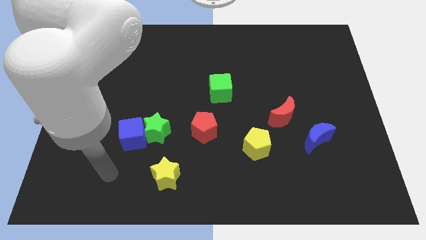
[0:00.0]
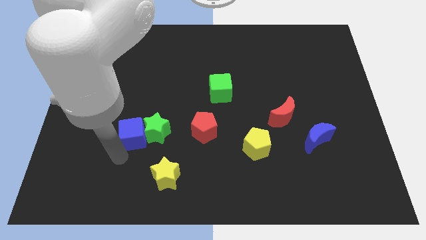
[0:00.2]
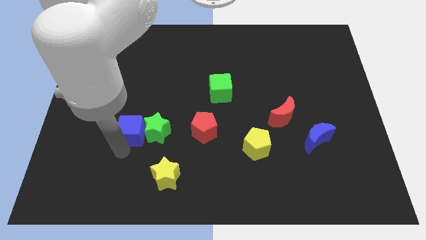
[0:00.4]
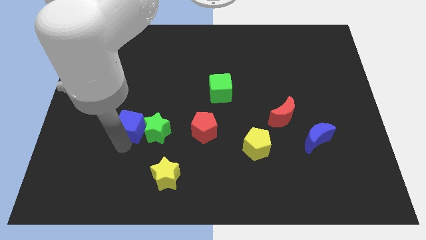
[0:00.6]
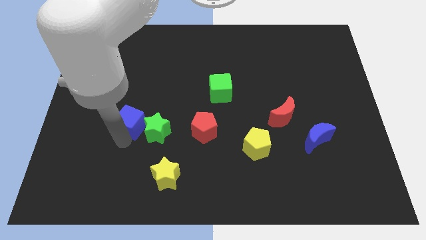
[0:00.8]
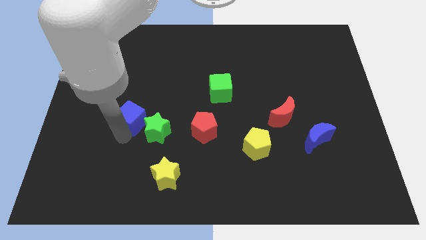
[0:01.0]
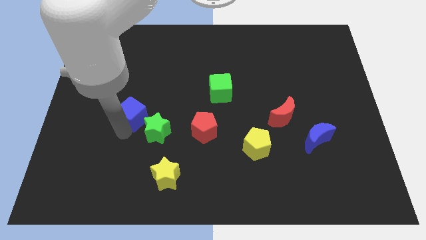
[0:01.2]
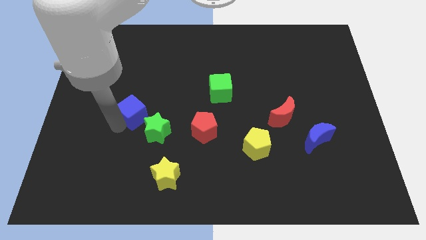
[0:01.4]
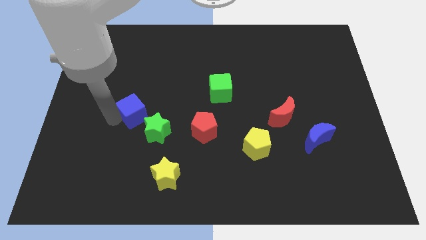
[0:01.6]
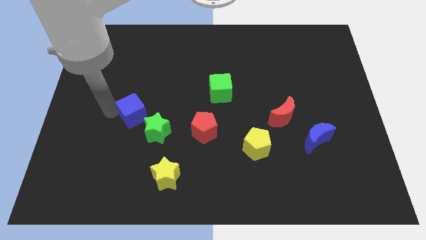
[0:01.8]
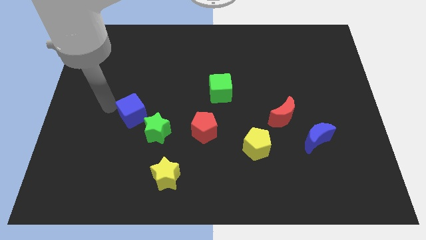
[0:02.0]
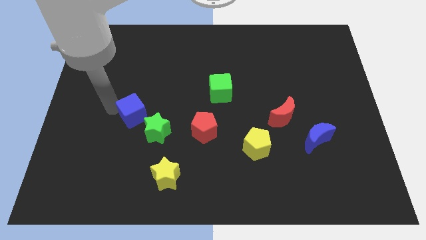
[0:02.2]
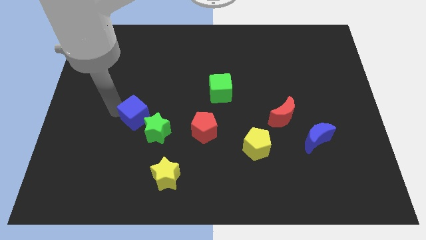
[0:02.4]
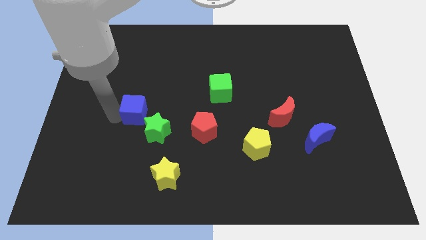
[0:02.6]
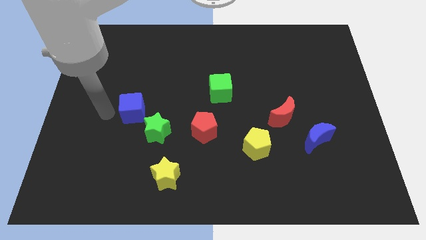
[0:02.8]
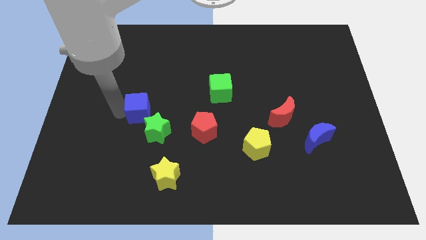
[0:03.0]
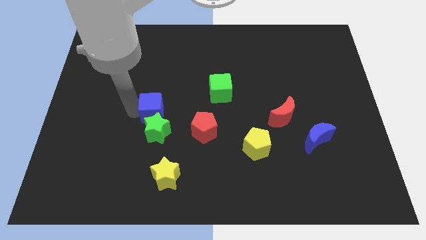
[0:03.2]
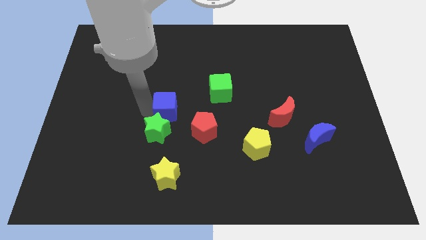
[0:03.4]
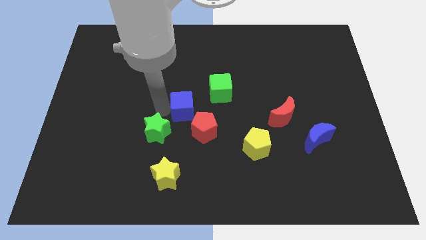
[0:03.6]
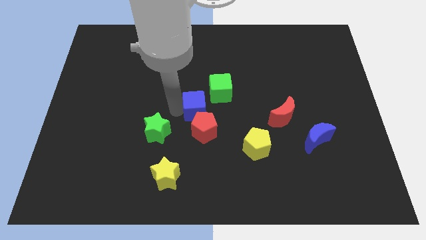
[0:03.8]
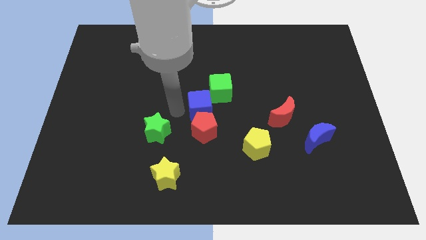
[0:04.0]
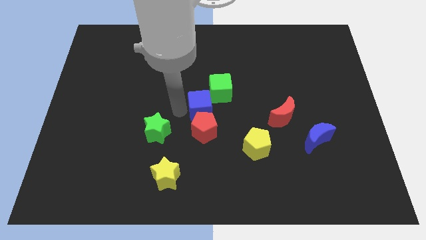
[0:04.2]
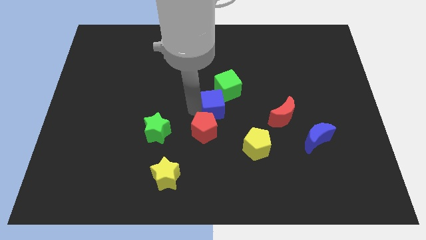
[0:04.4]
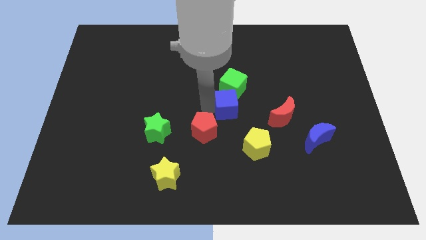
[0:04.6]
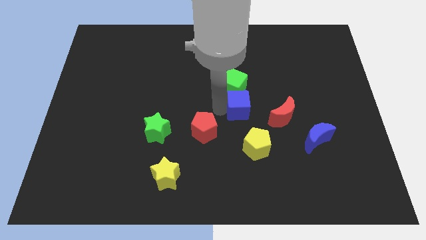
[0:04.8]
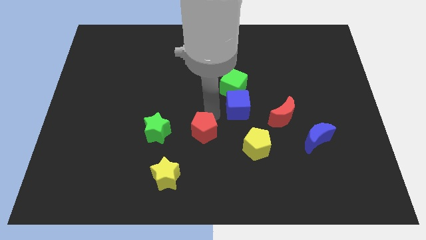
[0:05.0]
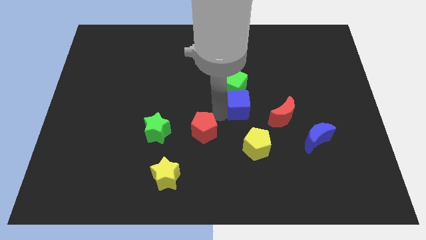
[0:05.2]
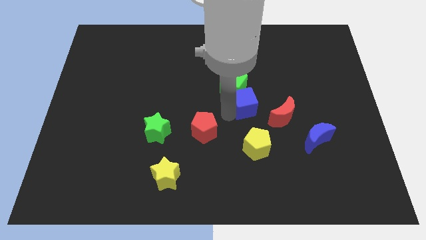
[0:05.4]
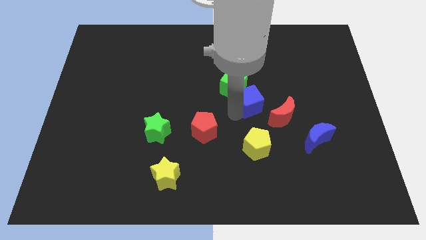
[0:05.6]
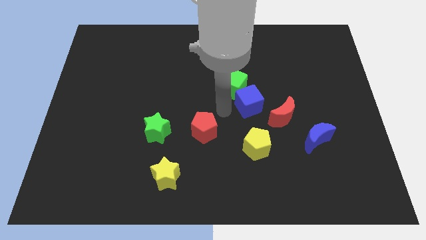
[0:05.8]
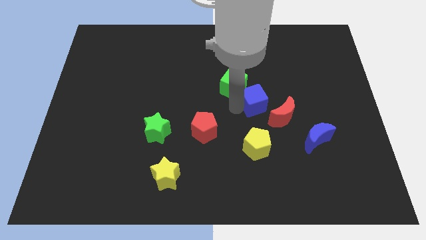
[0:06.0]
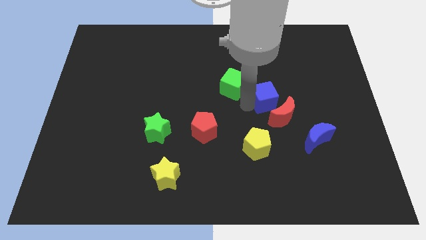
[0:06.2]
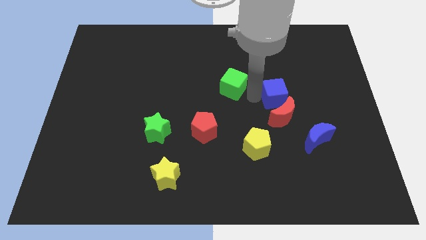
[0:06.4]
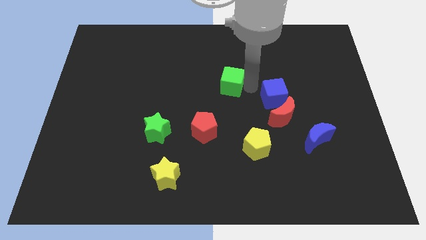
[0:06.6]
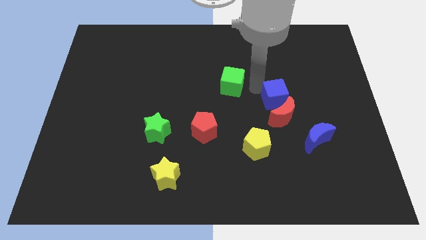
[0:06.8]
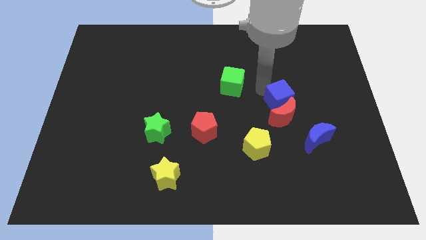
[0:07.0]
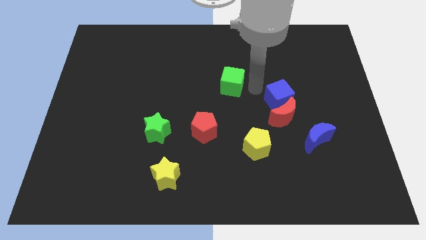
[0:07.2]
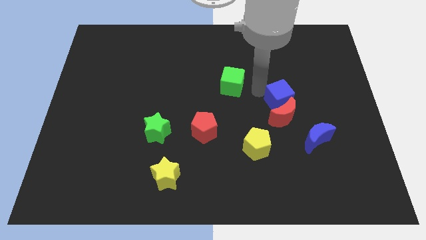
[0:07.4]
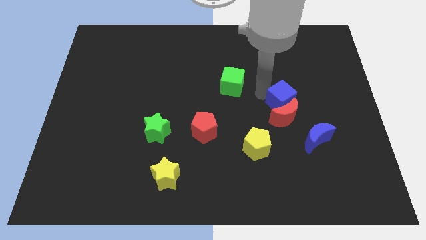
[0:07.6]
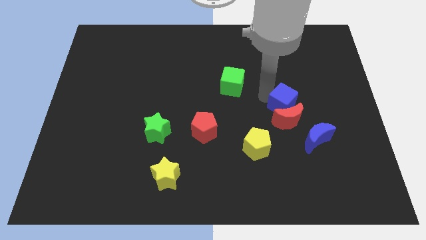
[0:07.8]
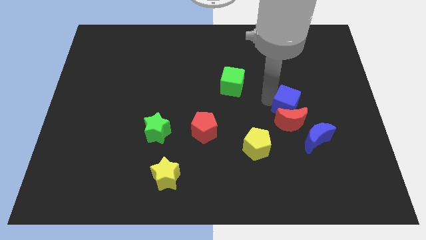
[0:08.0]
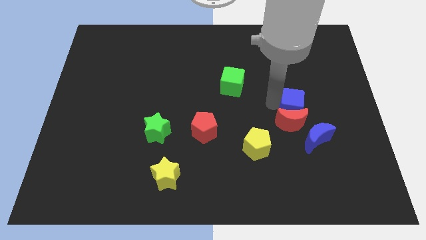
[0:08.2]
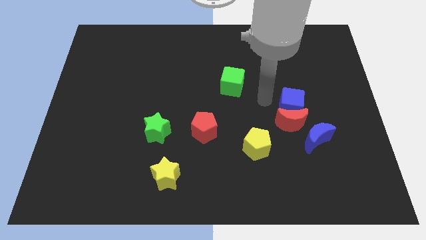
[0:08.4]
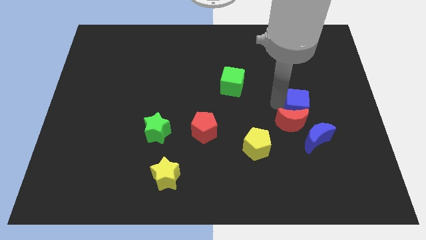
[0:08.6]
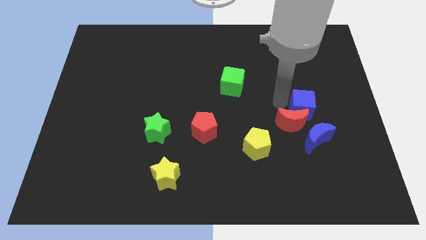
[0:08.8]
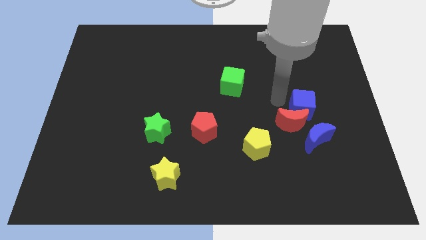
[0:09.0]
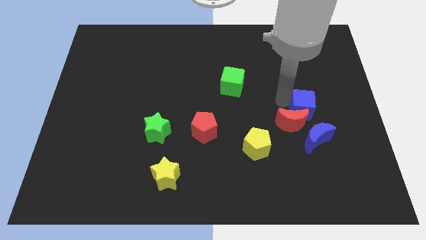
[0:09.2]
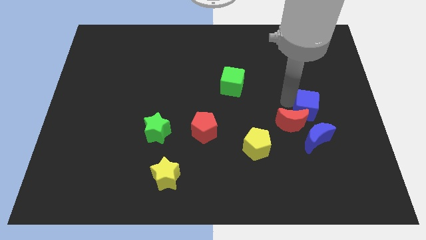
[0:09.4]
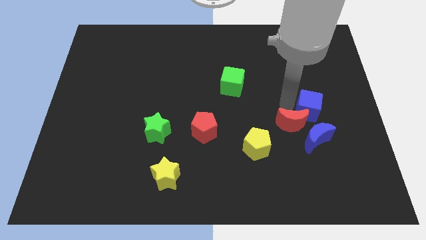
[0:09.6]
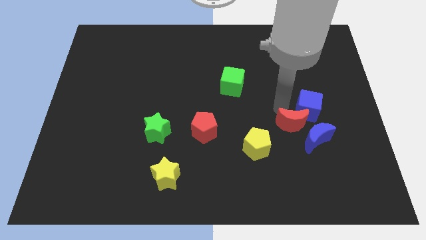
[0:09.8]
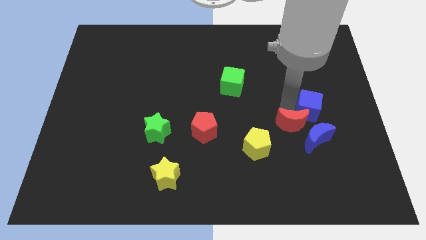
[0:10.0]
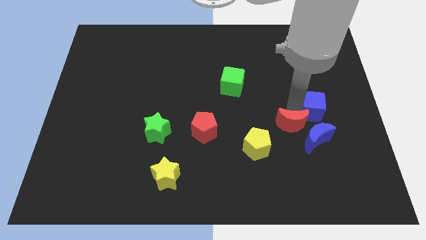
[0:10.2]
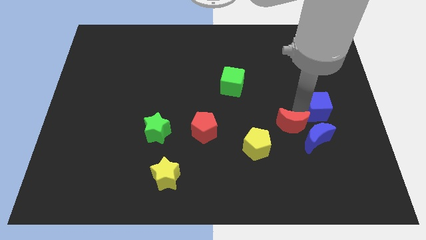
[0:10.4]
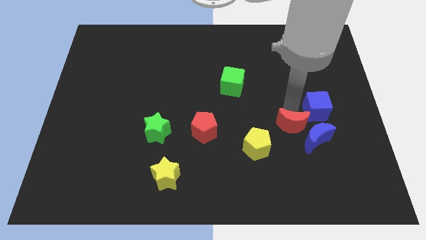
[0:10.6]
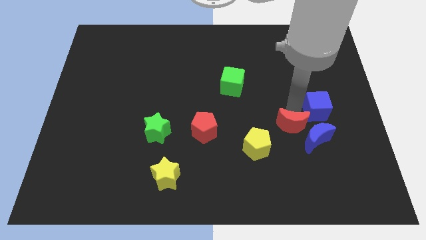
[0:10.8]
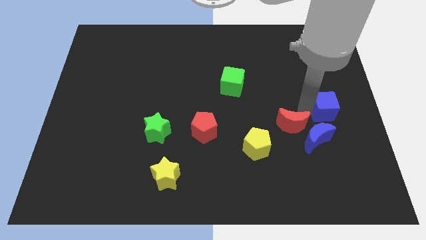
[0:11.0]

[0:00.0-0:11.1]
put the blue cube to the right side

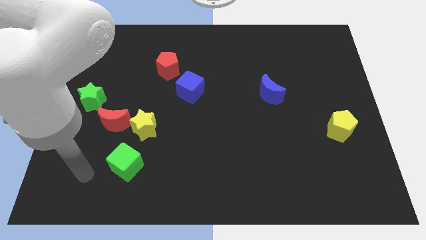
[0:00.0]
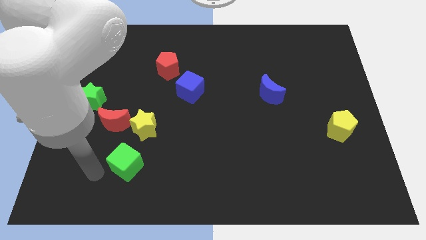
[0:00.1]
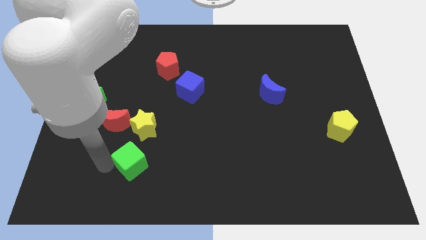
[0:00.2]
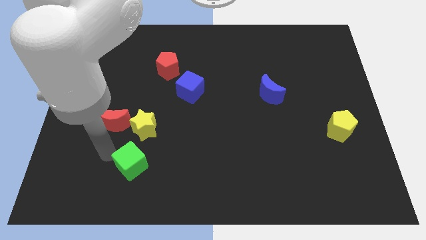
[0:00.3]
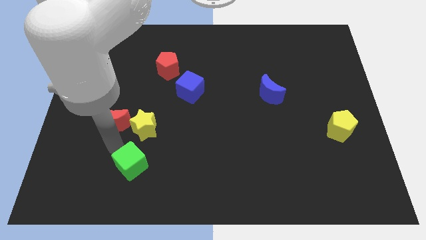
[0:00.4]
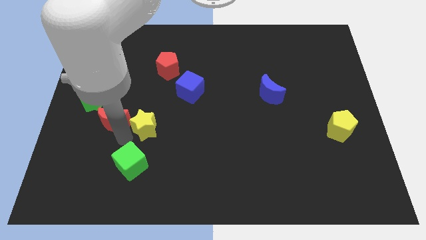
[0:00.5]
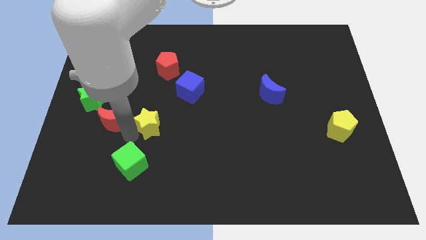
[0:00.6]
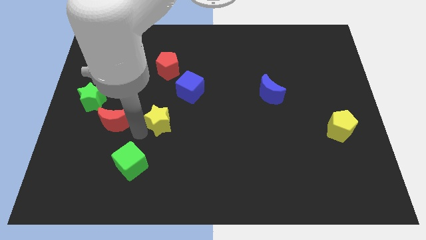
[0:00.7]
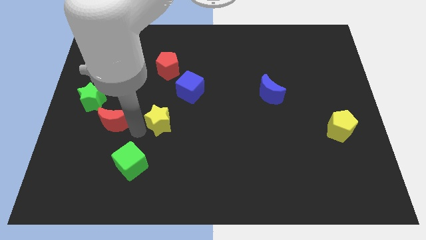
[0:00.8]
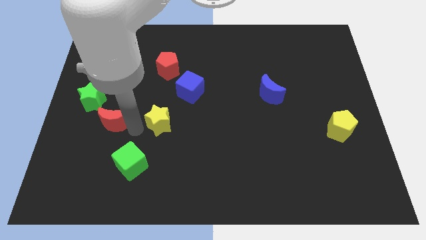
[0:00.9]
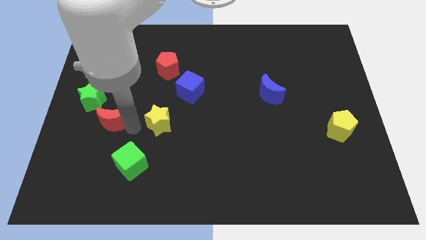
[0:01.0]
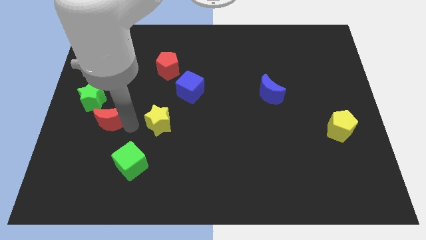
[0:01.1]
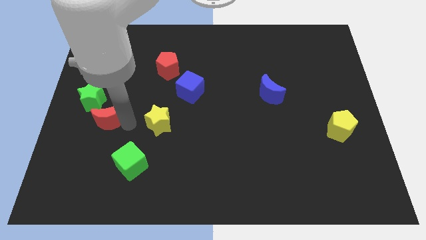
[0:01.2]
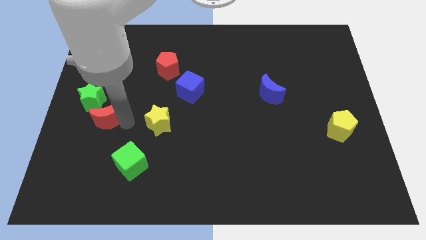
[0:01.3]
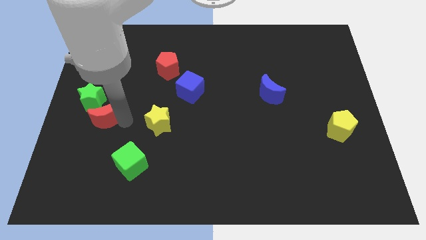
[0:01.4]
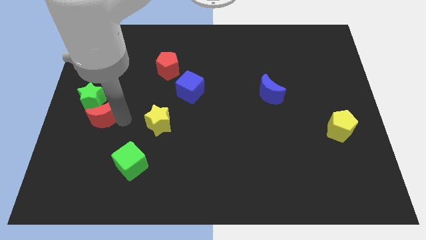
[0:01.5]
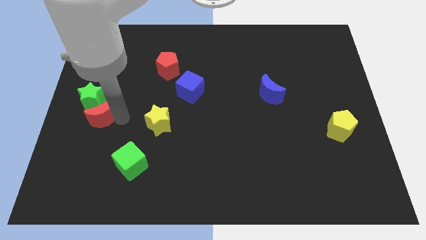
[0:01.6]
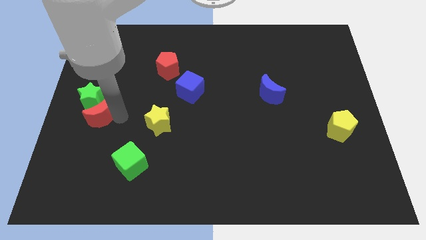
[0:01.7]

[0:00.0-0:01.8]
move the red moon to the center left
